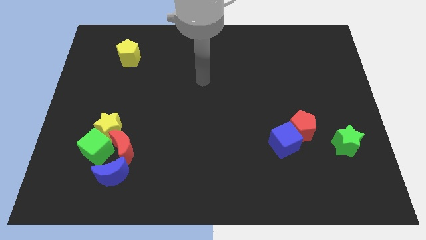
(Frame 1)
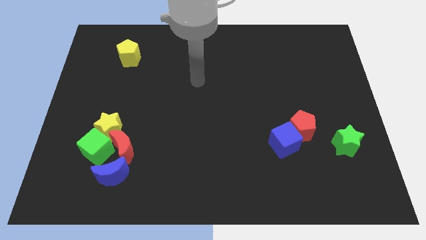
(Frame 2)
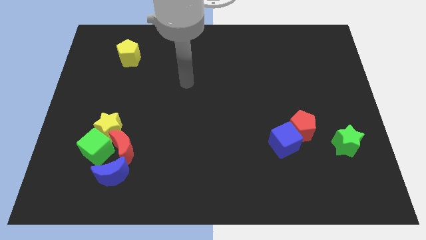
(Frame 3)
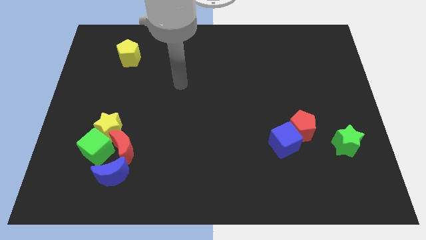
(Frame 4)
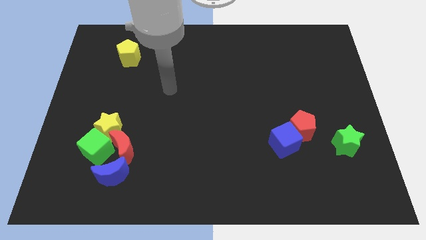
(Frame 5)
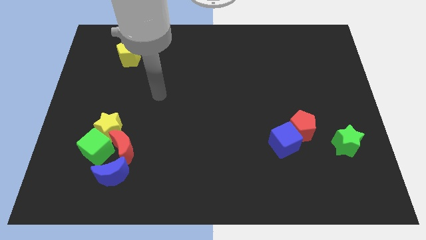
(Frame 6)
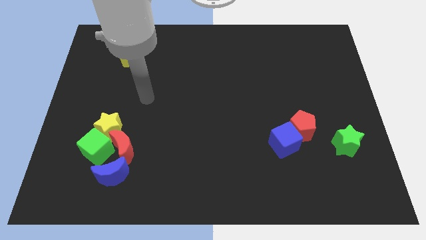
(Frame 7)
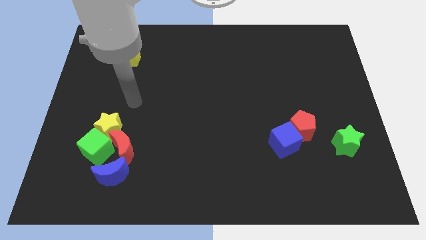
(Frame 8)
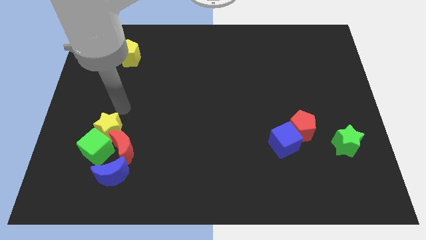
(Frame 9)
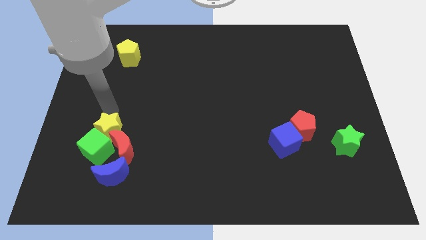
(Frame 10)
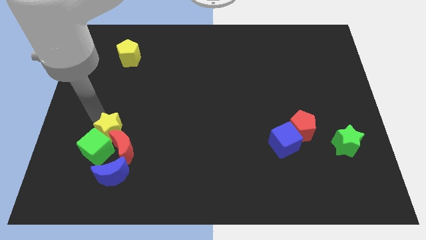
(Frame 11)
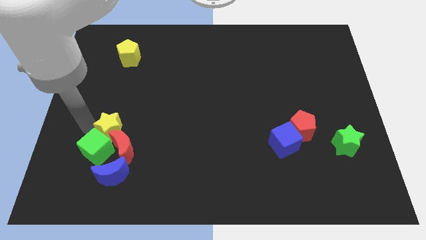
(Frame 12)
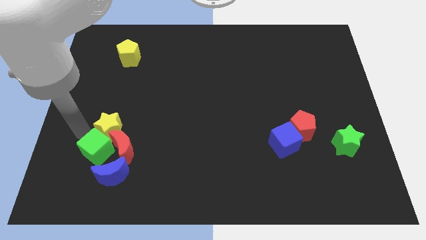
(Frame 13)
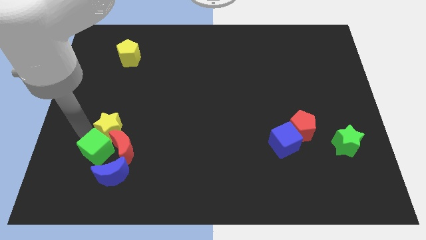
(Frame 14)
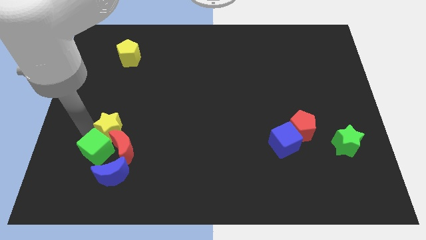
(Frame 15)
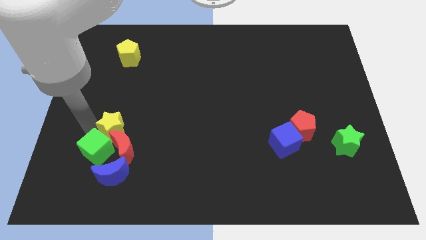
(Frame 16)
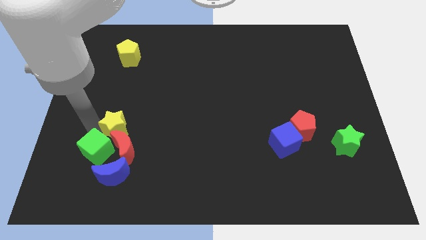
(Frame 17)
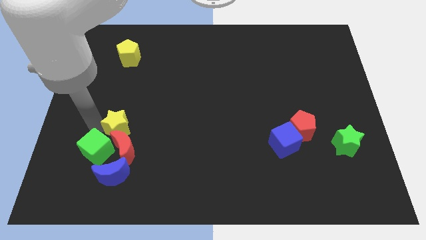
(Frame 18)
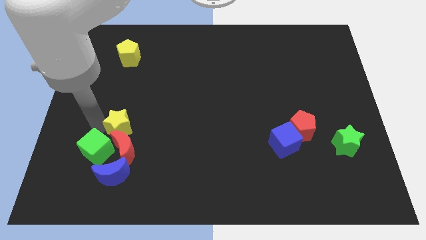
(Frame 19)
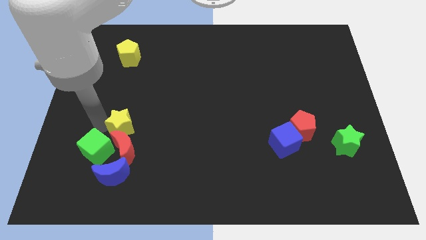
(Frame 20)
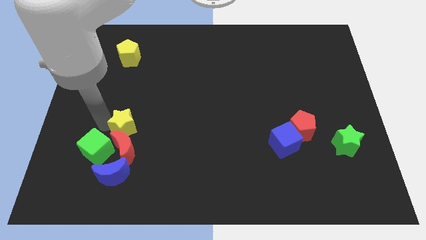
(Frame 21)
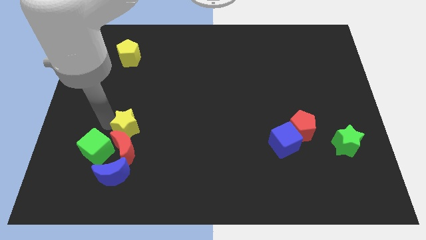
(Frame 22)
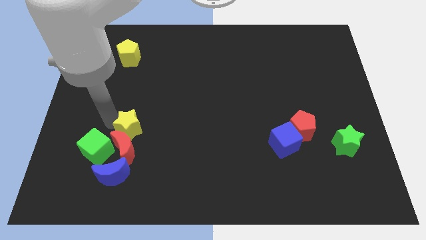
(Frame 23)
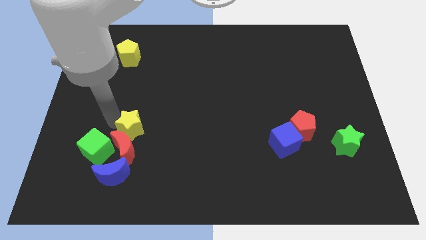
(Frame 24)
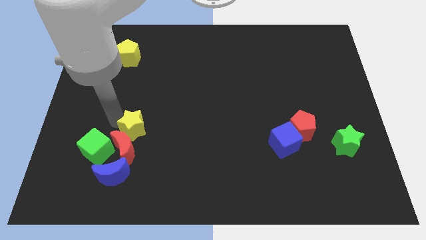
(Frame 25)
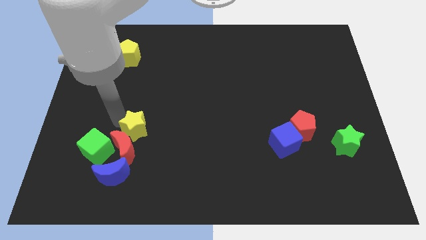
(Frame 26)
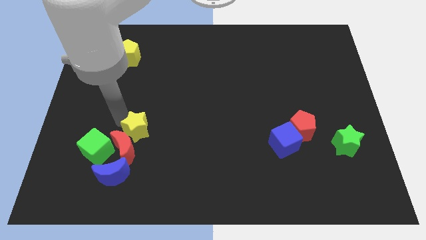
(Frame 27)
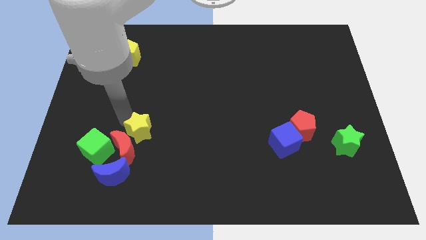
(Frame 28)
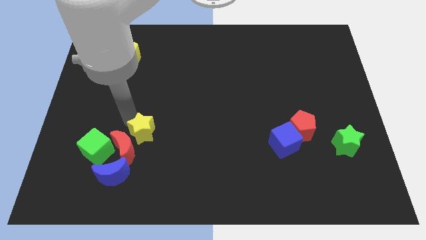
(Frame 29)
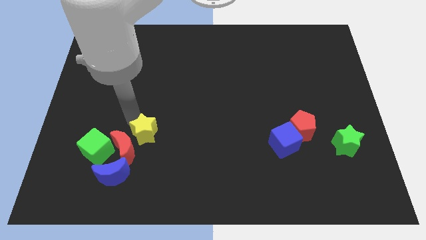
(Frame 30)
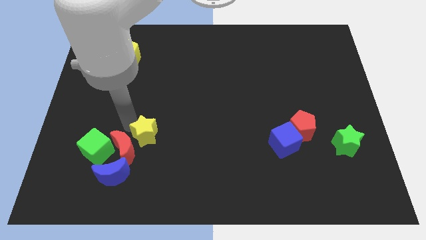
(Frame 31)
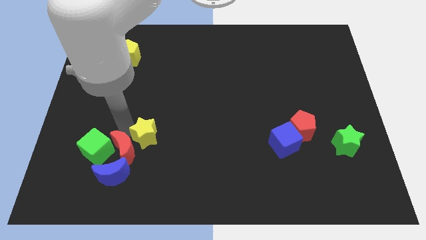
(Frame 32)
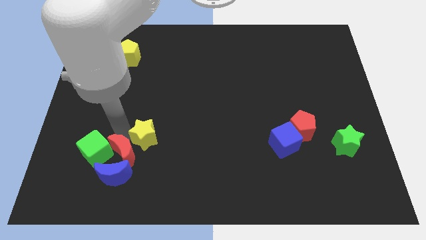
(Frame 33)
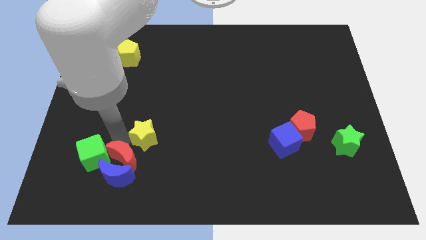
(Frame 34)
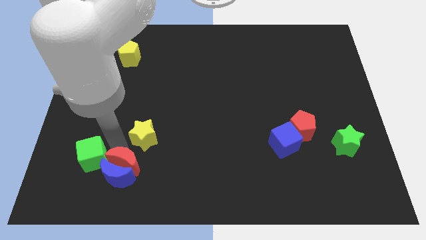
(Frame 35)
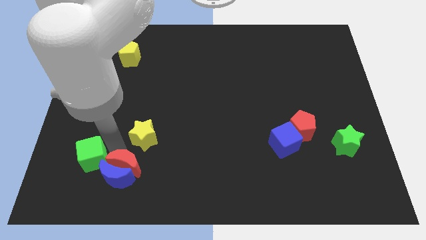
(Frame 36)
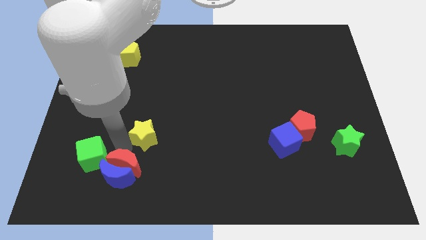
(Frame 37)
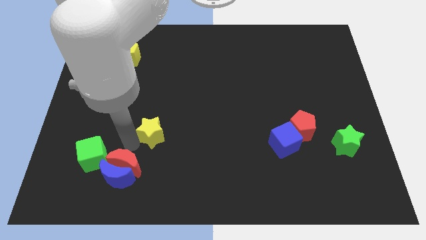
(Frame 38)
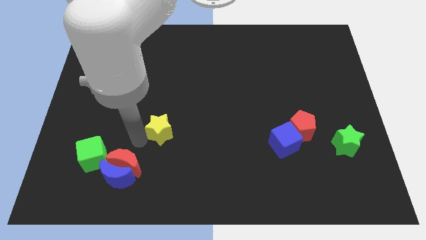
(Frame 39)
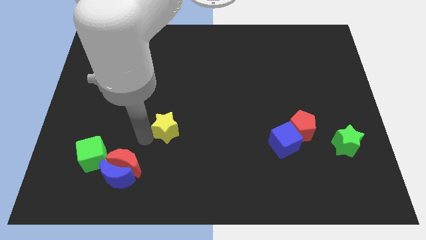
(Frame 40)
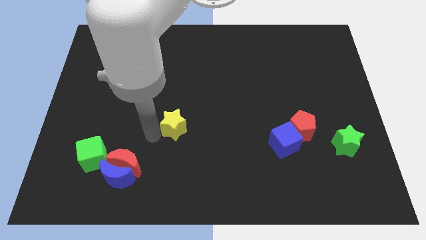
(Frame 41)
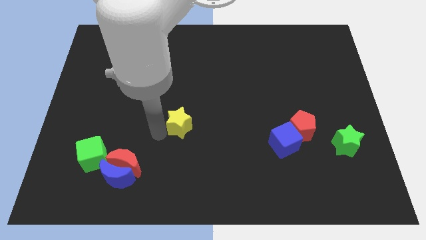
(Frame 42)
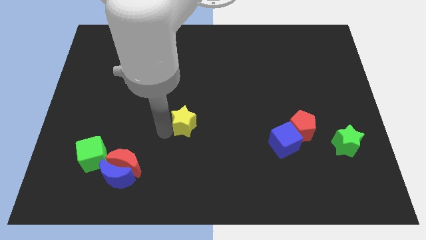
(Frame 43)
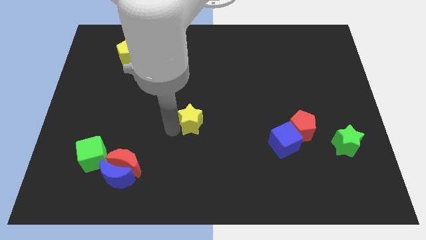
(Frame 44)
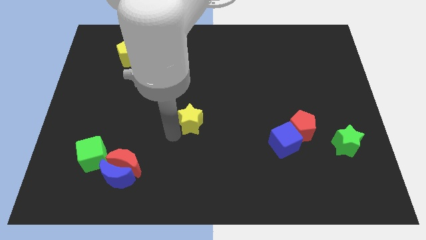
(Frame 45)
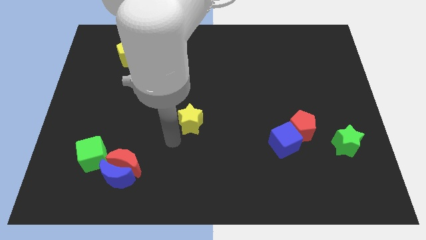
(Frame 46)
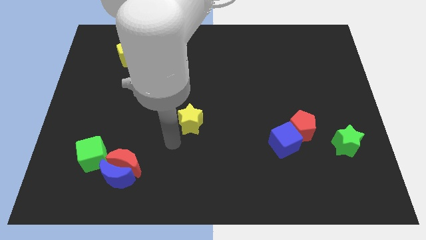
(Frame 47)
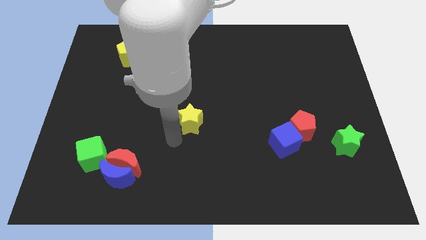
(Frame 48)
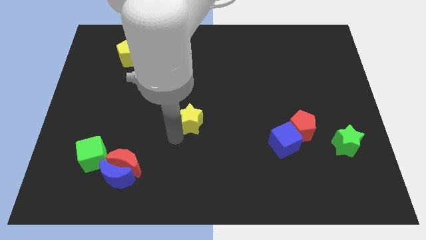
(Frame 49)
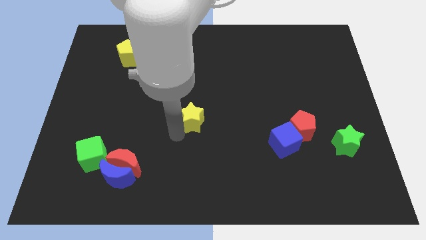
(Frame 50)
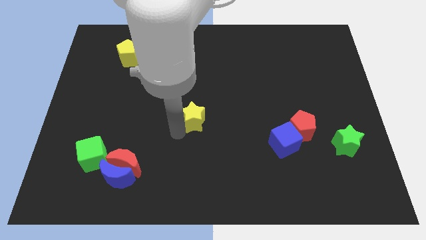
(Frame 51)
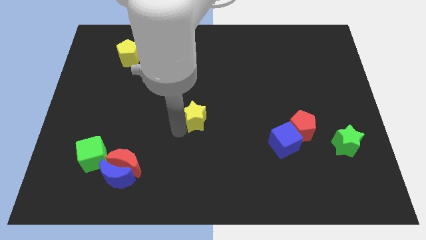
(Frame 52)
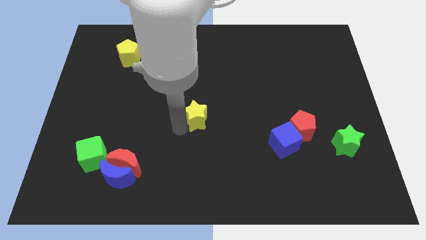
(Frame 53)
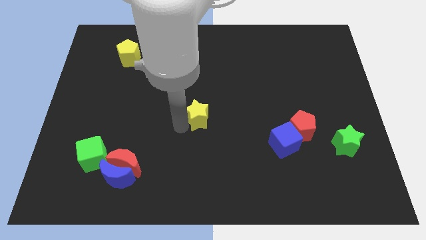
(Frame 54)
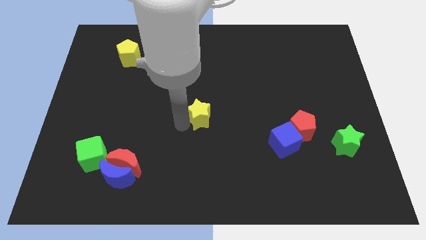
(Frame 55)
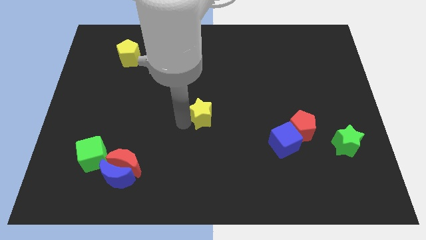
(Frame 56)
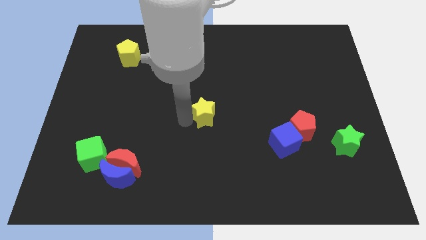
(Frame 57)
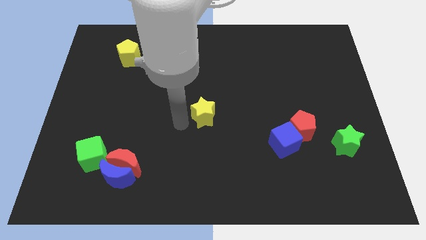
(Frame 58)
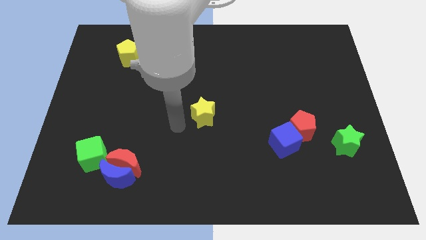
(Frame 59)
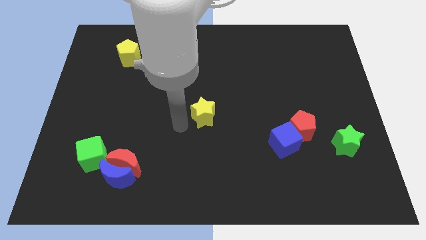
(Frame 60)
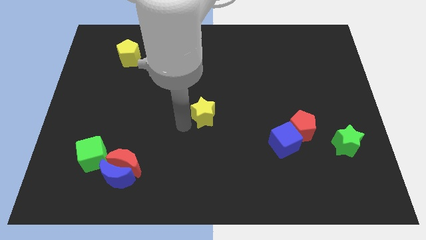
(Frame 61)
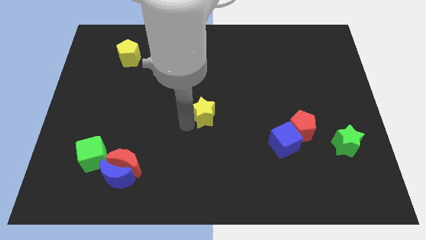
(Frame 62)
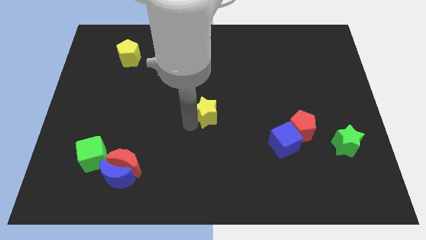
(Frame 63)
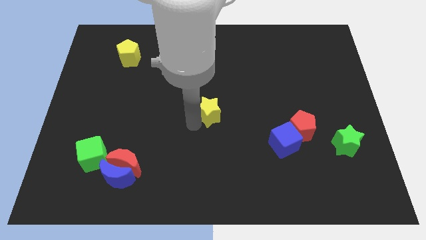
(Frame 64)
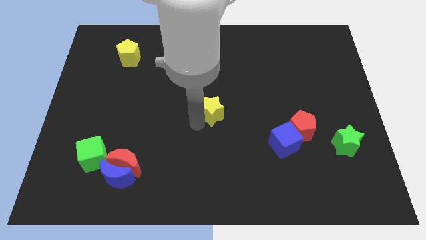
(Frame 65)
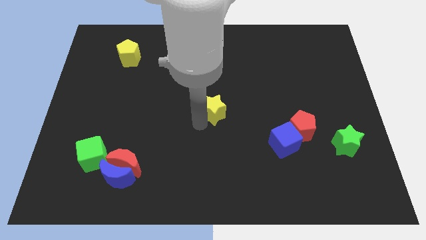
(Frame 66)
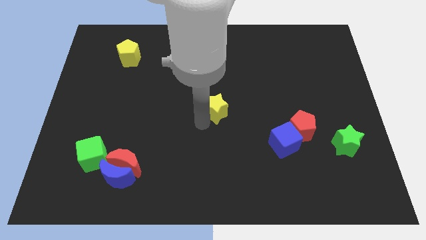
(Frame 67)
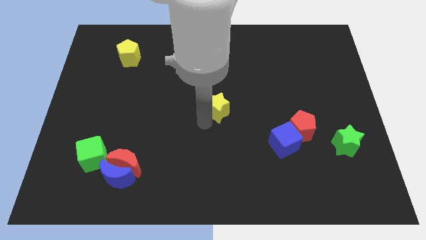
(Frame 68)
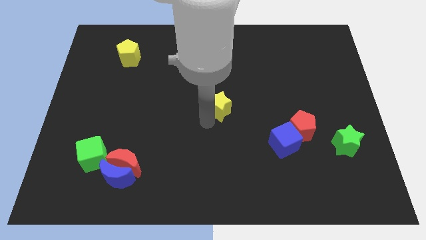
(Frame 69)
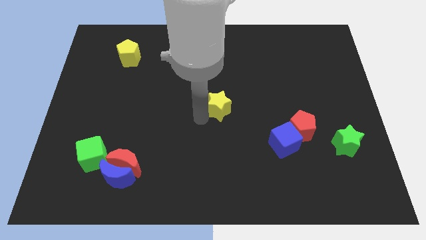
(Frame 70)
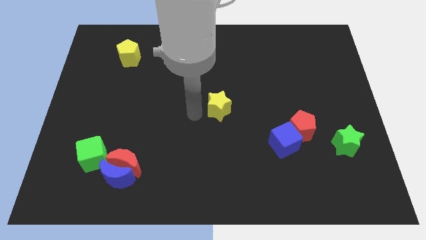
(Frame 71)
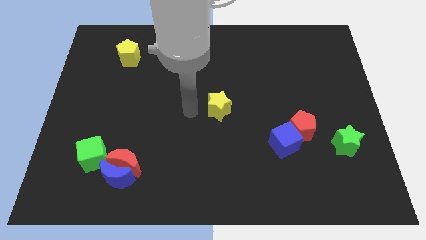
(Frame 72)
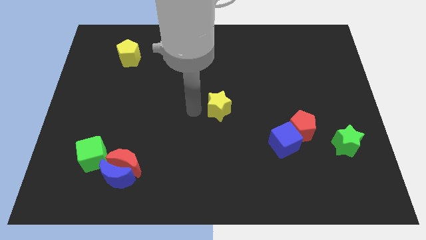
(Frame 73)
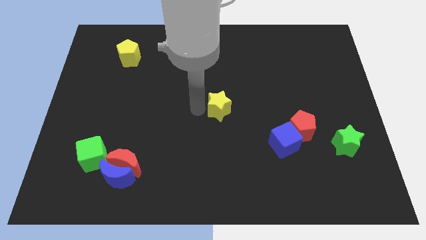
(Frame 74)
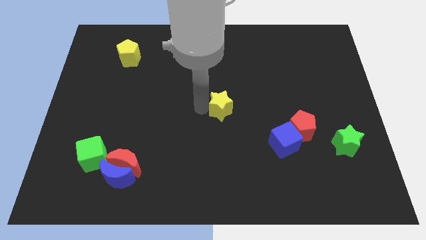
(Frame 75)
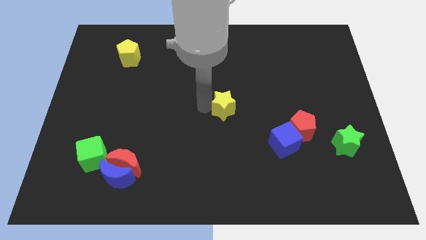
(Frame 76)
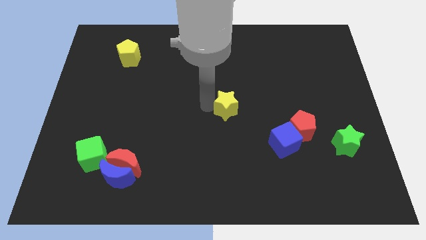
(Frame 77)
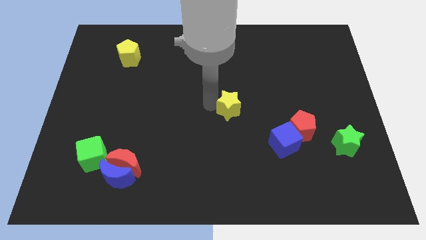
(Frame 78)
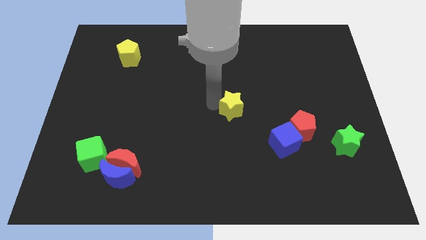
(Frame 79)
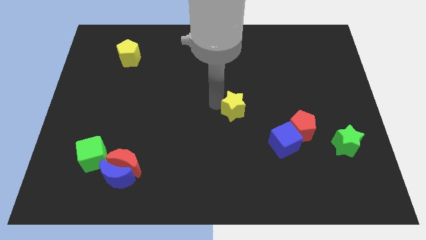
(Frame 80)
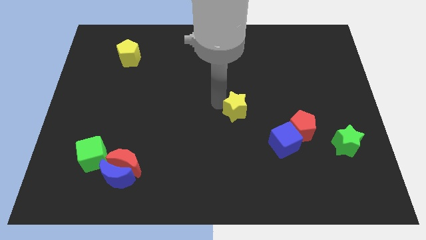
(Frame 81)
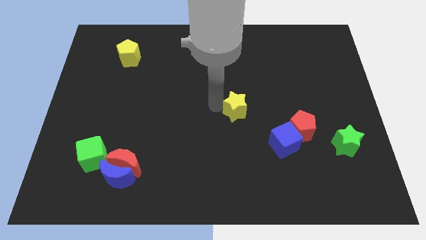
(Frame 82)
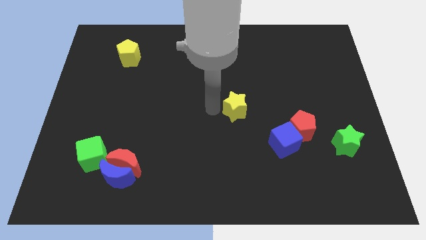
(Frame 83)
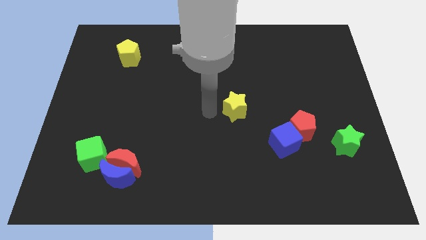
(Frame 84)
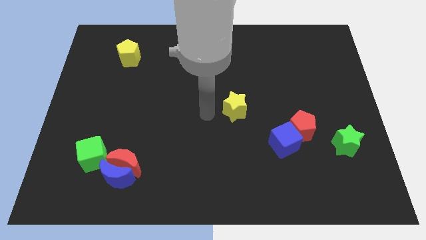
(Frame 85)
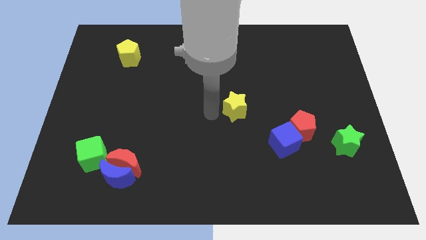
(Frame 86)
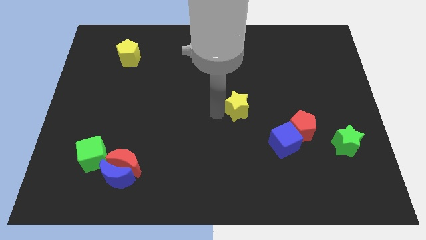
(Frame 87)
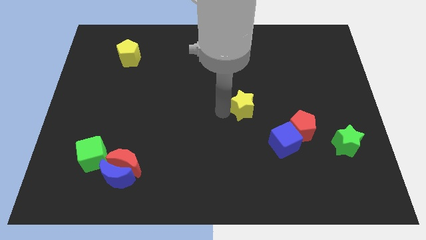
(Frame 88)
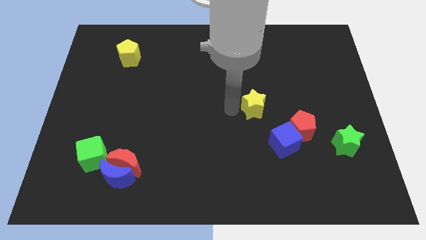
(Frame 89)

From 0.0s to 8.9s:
put the yellow star diagonally up and to the left of the red pentagon
